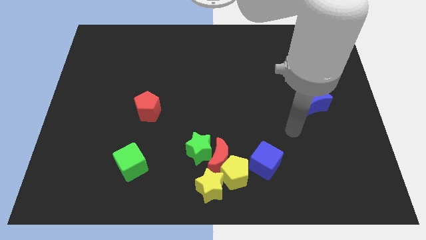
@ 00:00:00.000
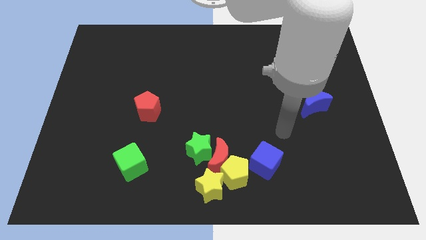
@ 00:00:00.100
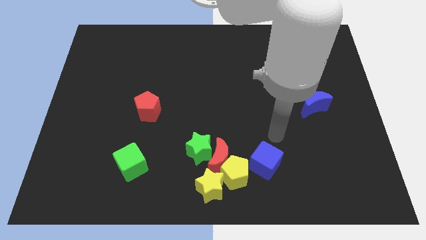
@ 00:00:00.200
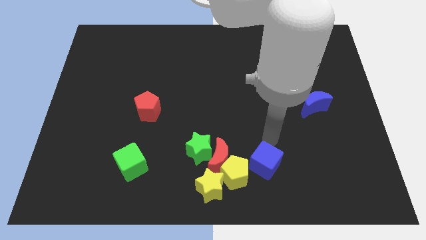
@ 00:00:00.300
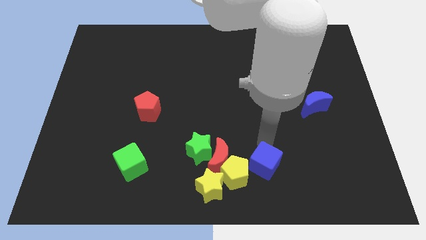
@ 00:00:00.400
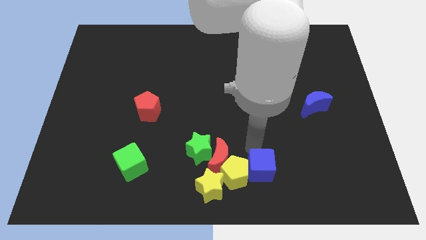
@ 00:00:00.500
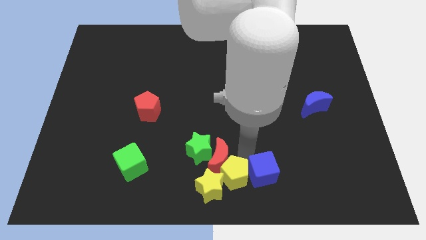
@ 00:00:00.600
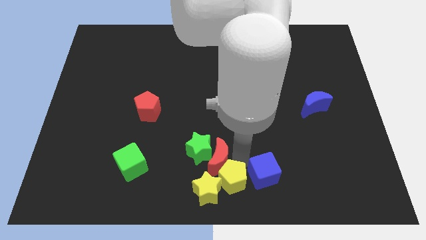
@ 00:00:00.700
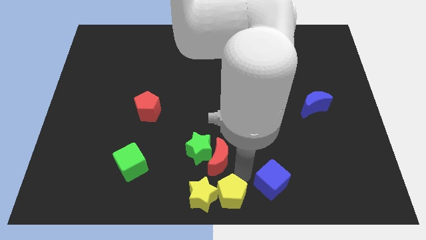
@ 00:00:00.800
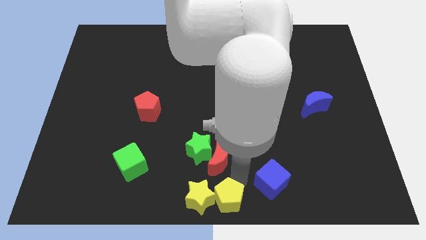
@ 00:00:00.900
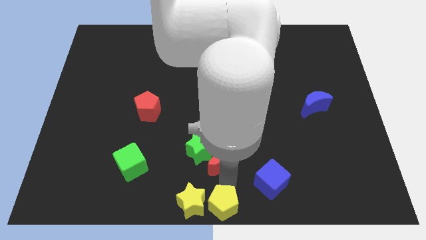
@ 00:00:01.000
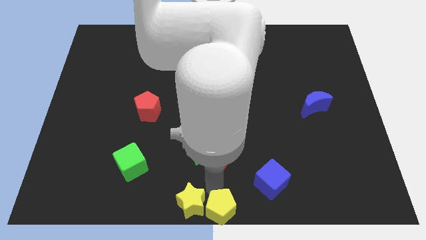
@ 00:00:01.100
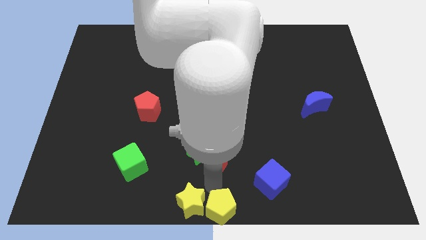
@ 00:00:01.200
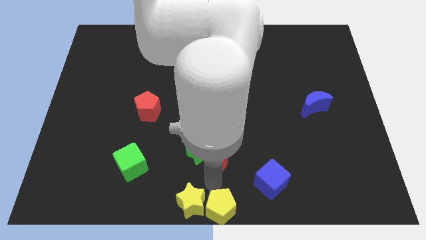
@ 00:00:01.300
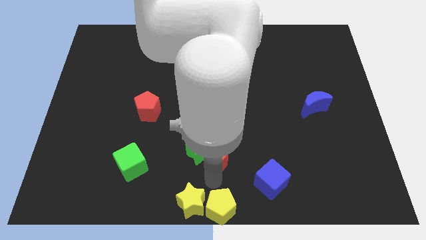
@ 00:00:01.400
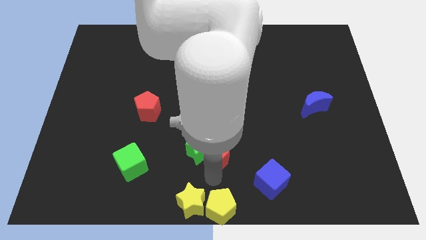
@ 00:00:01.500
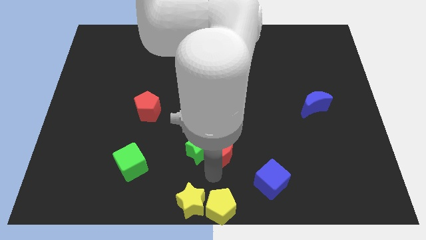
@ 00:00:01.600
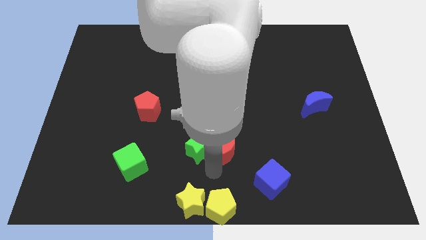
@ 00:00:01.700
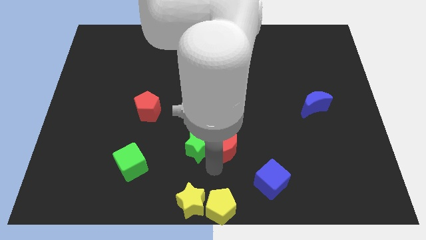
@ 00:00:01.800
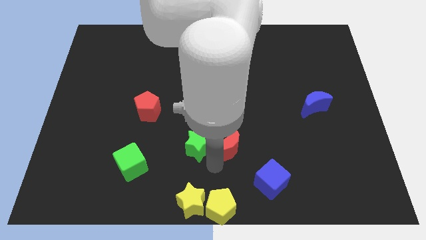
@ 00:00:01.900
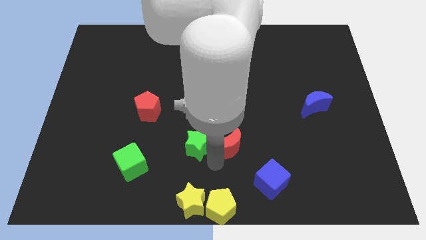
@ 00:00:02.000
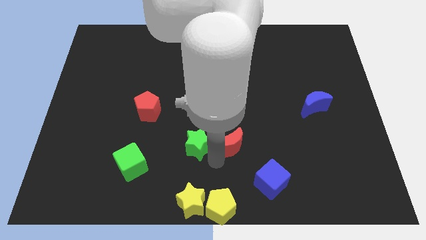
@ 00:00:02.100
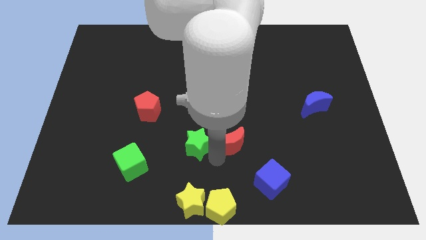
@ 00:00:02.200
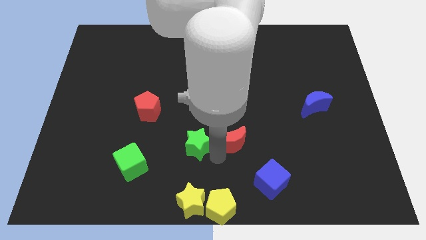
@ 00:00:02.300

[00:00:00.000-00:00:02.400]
separate the red moon from the group

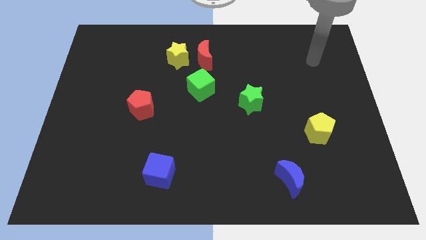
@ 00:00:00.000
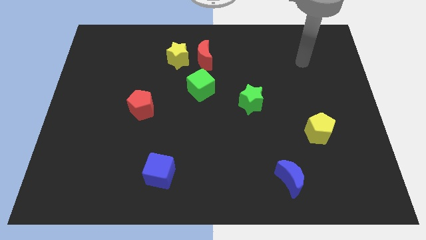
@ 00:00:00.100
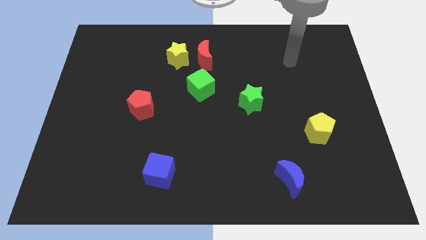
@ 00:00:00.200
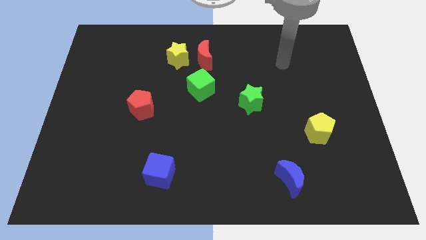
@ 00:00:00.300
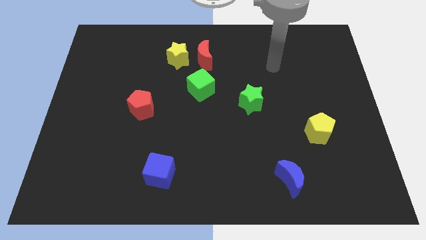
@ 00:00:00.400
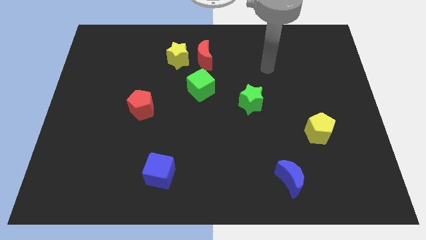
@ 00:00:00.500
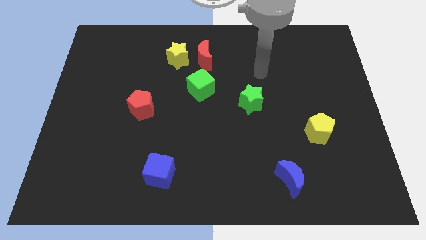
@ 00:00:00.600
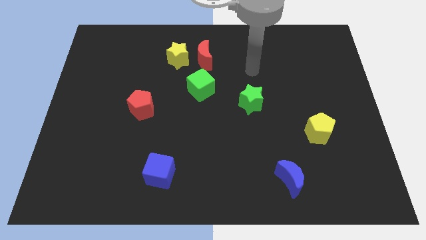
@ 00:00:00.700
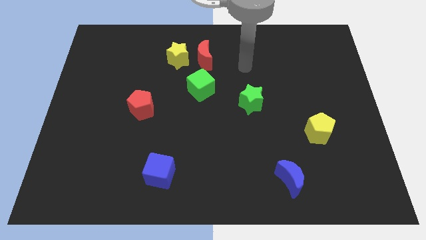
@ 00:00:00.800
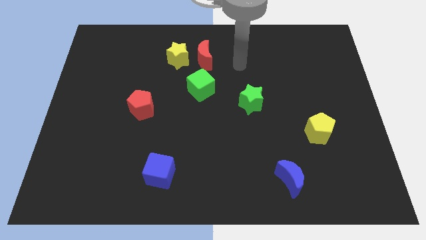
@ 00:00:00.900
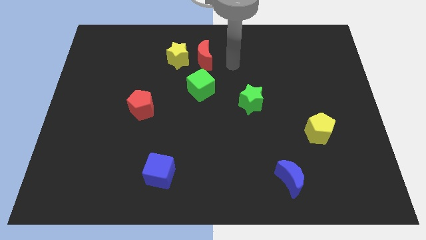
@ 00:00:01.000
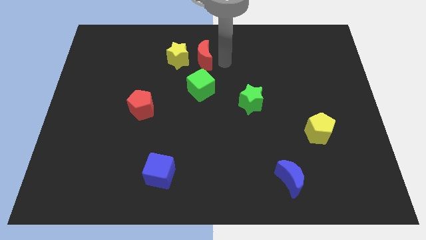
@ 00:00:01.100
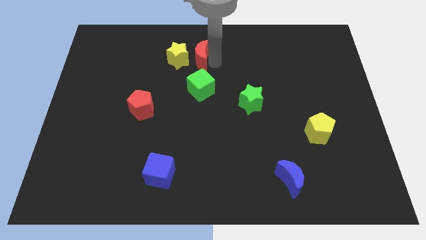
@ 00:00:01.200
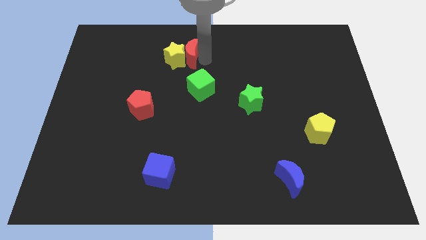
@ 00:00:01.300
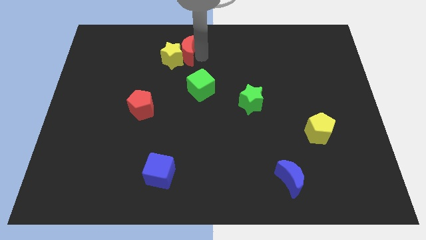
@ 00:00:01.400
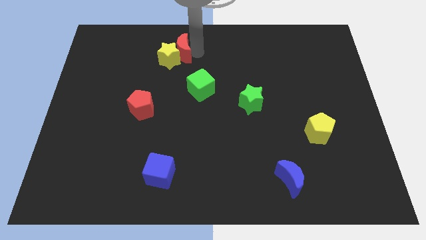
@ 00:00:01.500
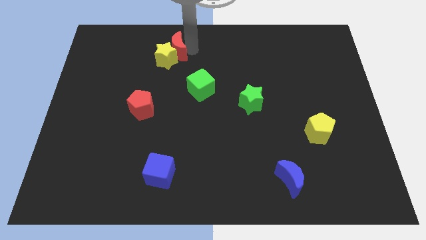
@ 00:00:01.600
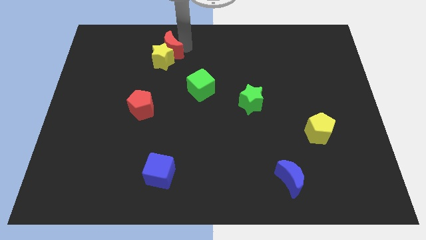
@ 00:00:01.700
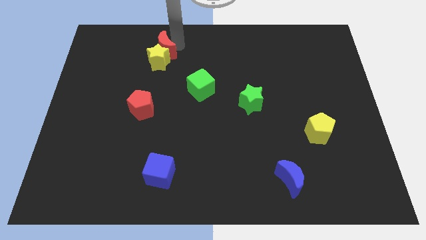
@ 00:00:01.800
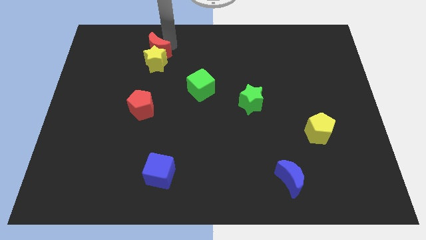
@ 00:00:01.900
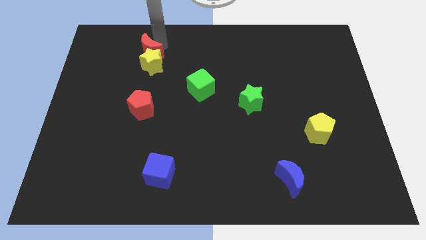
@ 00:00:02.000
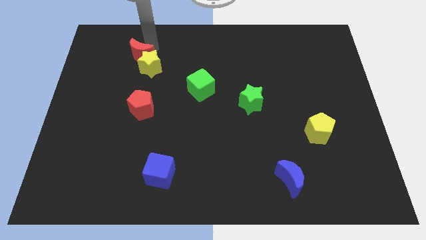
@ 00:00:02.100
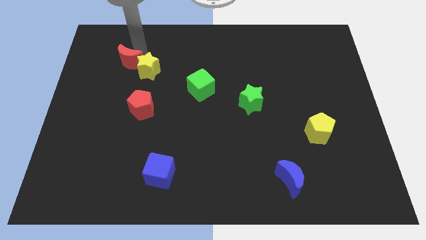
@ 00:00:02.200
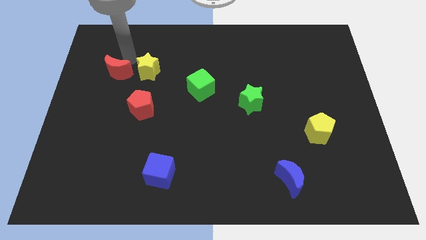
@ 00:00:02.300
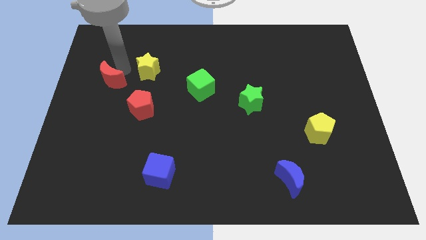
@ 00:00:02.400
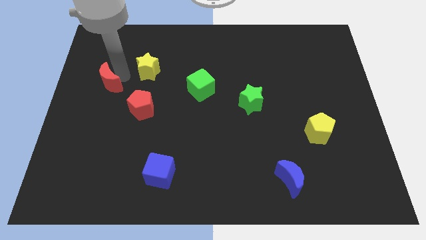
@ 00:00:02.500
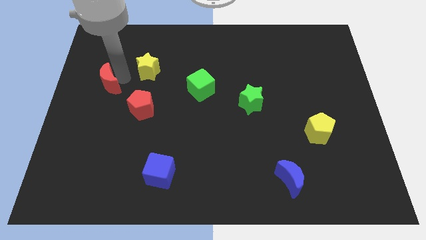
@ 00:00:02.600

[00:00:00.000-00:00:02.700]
pull the yellow star apart from the red moon

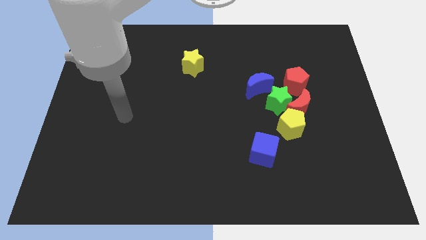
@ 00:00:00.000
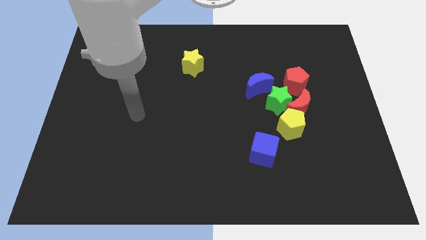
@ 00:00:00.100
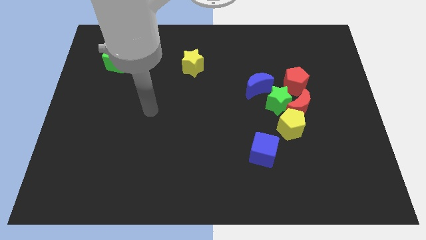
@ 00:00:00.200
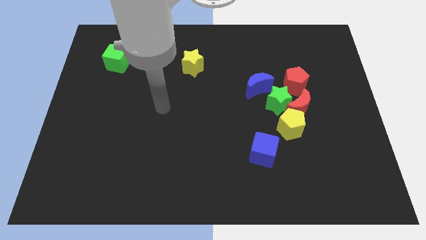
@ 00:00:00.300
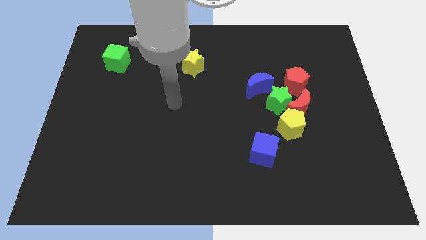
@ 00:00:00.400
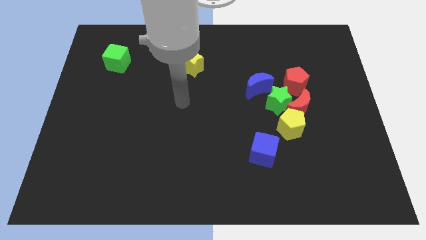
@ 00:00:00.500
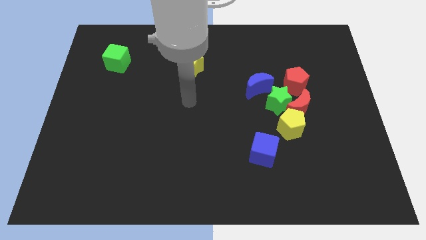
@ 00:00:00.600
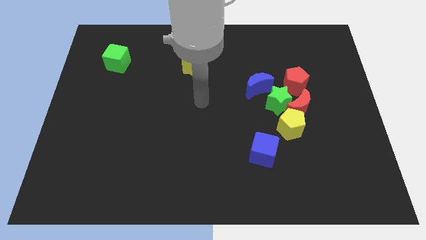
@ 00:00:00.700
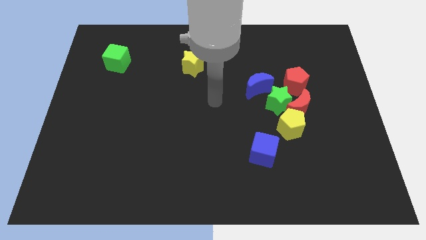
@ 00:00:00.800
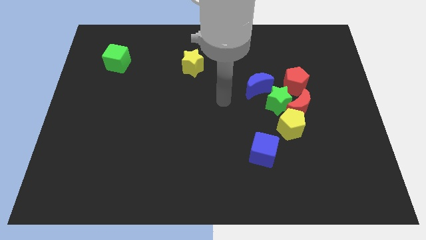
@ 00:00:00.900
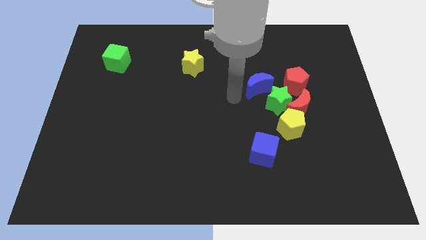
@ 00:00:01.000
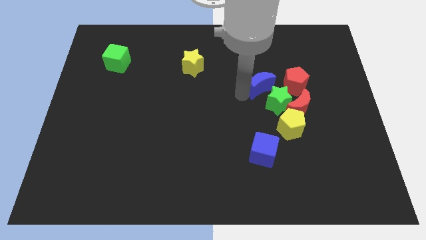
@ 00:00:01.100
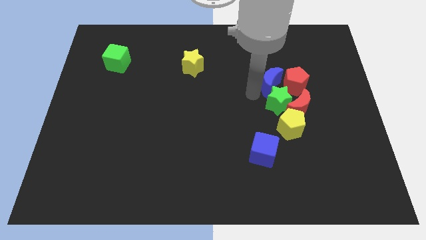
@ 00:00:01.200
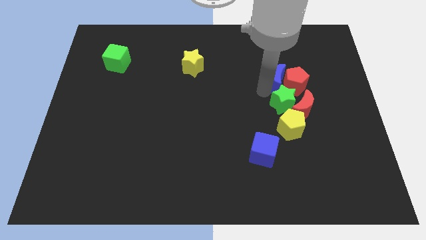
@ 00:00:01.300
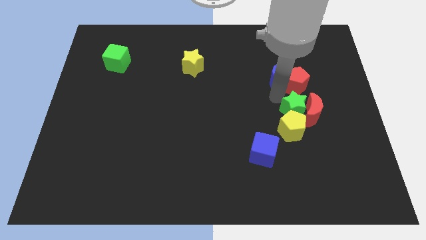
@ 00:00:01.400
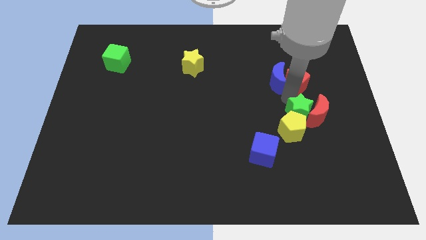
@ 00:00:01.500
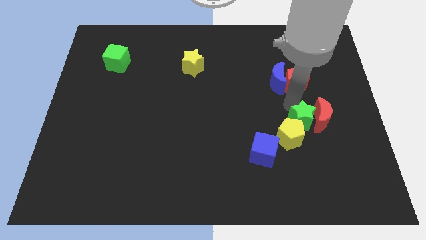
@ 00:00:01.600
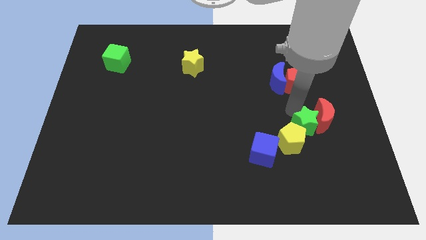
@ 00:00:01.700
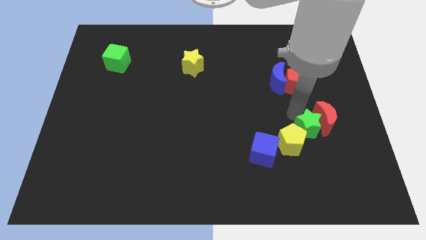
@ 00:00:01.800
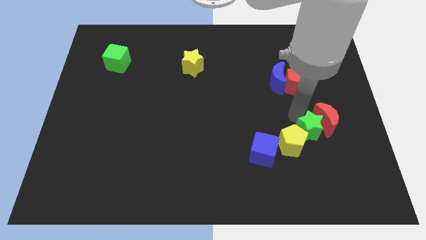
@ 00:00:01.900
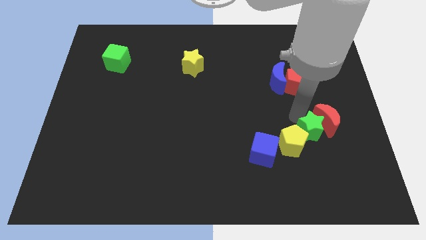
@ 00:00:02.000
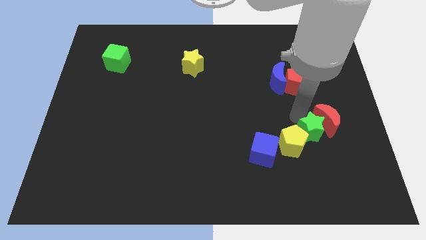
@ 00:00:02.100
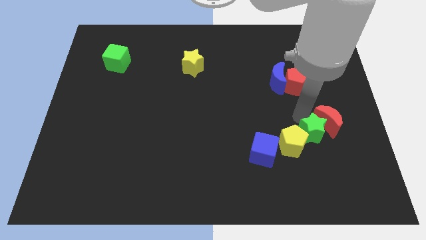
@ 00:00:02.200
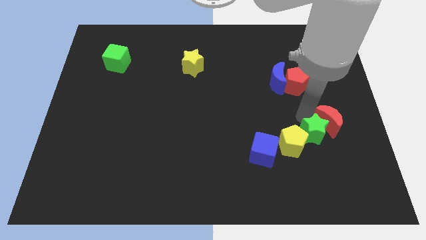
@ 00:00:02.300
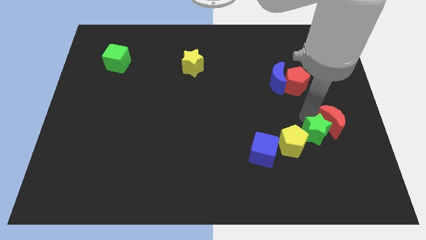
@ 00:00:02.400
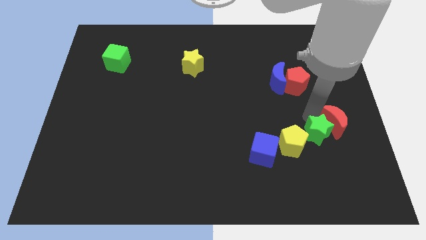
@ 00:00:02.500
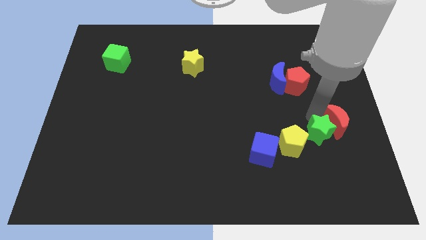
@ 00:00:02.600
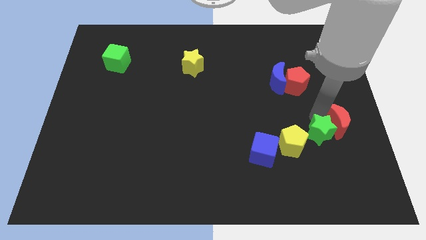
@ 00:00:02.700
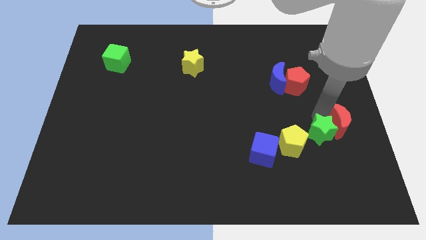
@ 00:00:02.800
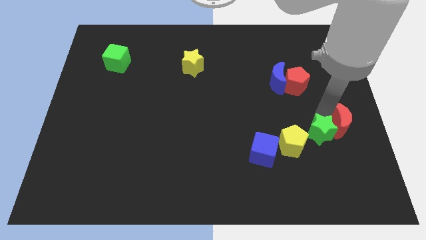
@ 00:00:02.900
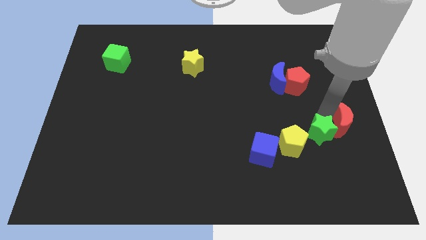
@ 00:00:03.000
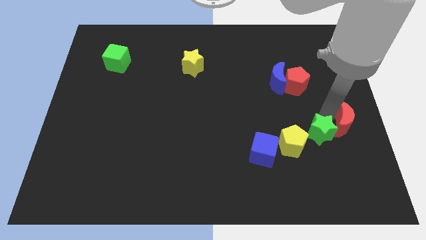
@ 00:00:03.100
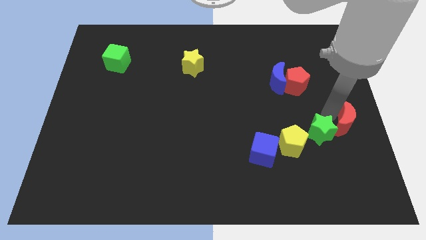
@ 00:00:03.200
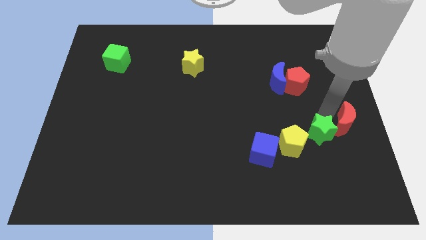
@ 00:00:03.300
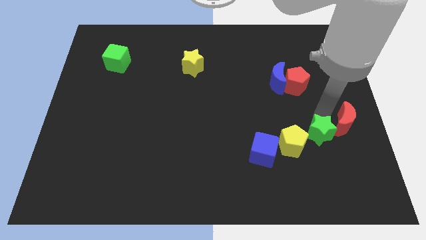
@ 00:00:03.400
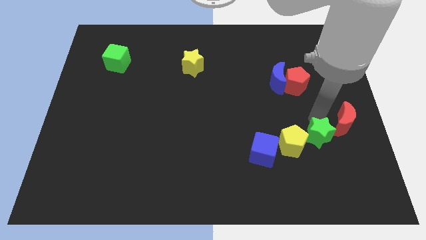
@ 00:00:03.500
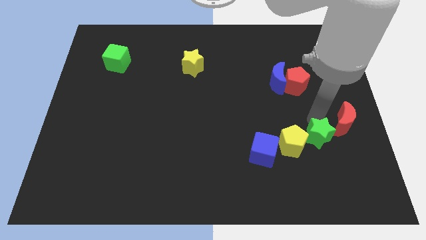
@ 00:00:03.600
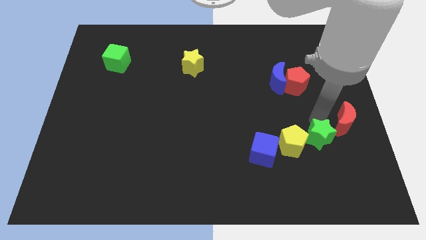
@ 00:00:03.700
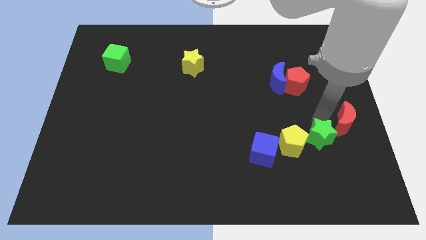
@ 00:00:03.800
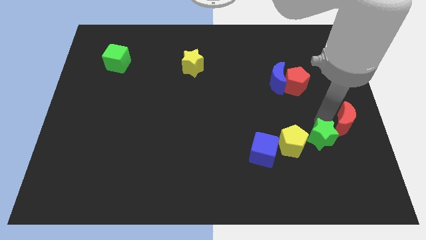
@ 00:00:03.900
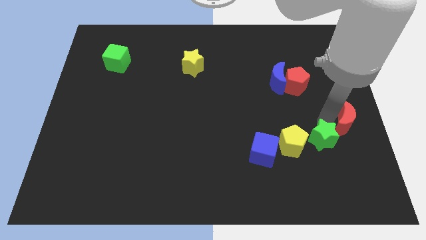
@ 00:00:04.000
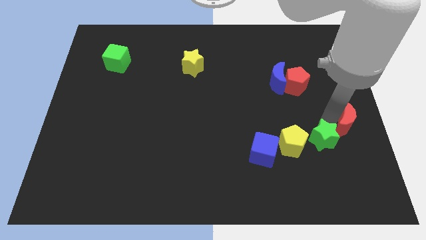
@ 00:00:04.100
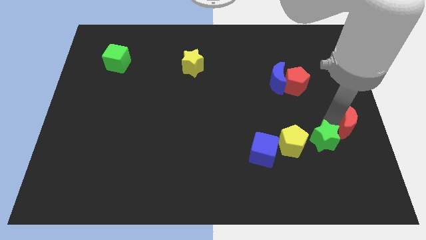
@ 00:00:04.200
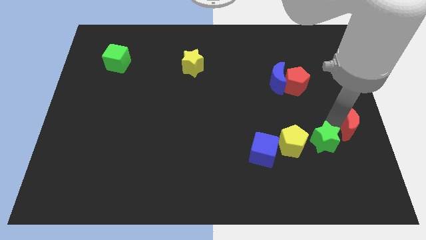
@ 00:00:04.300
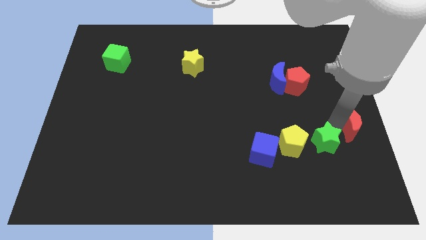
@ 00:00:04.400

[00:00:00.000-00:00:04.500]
pull the red moon apart from the green star, yellow pentagon, and red pentagon
